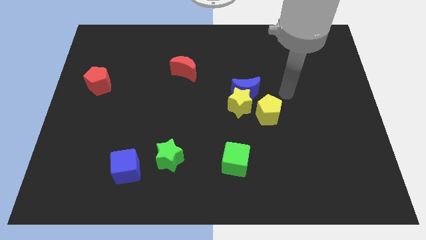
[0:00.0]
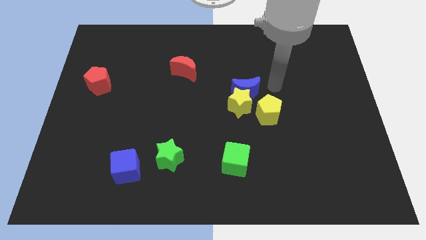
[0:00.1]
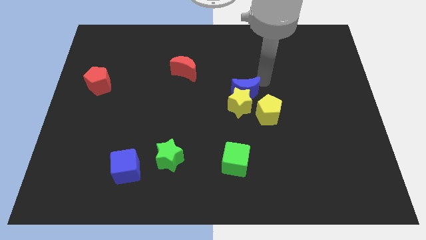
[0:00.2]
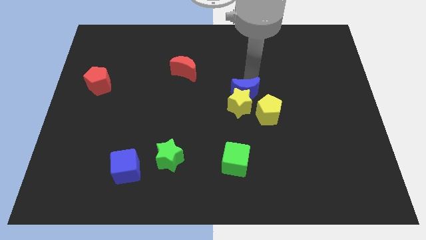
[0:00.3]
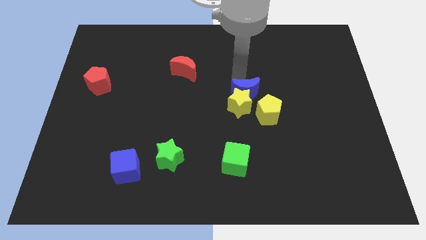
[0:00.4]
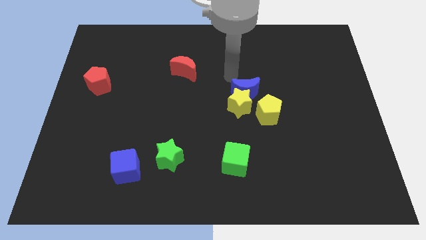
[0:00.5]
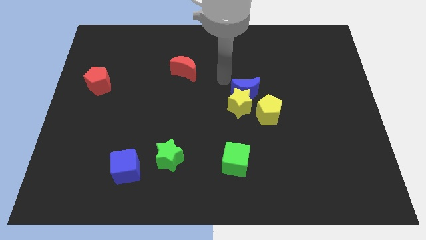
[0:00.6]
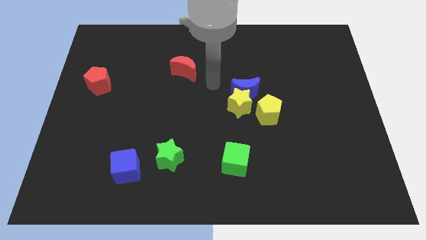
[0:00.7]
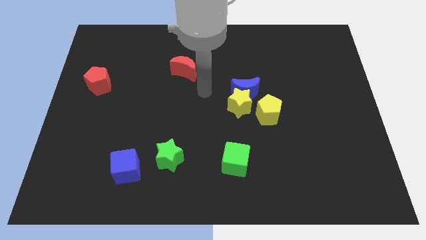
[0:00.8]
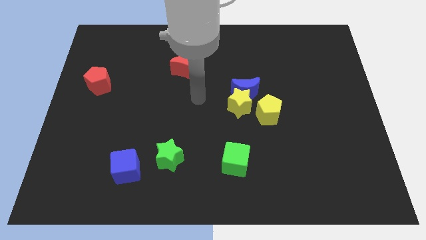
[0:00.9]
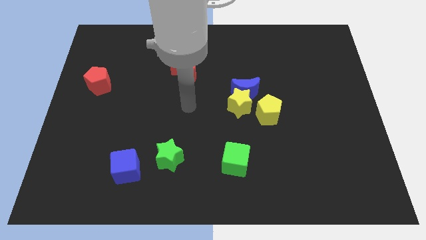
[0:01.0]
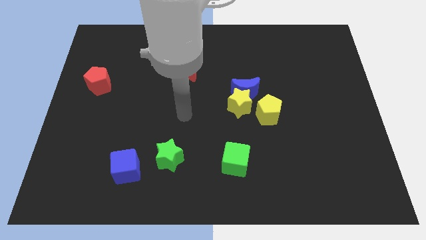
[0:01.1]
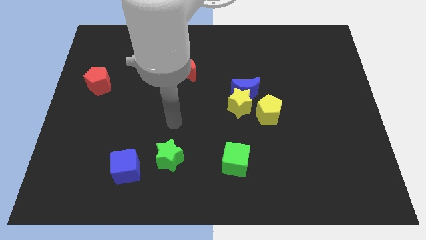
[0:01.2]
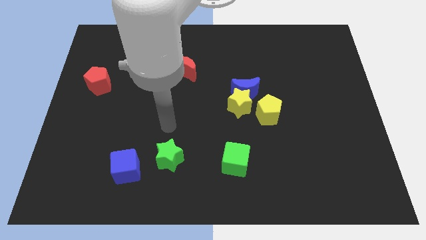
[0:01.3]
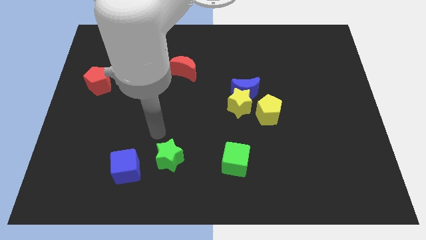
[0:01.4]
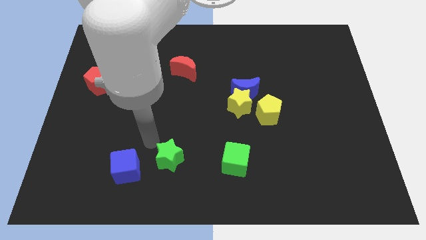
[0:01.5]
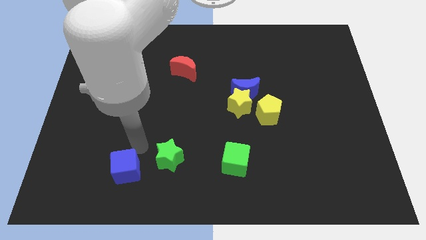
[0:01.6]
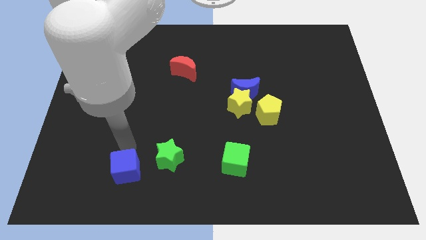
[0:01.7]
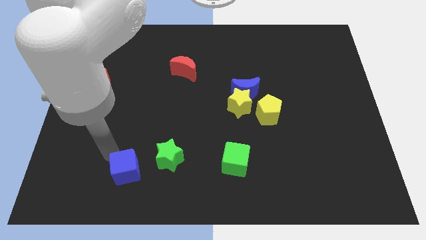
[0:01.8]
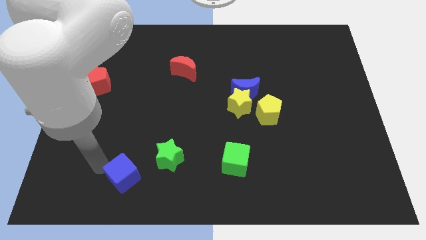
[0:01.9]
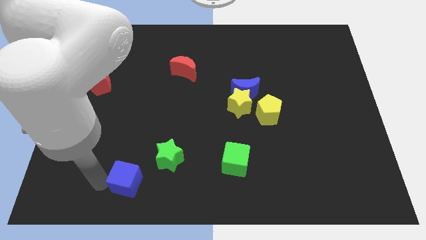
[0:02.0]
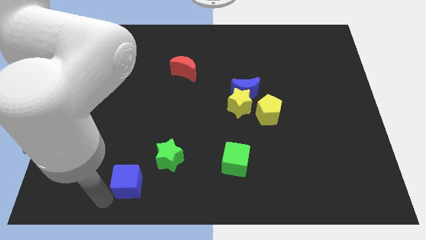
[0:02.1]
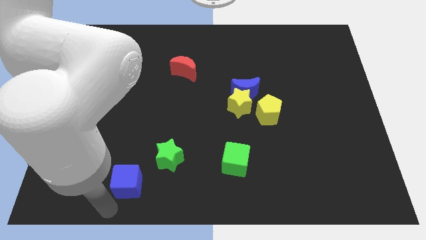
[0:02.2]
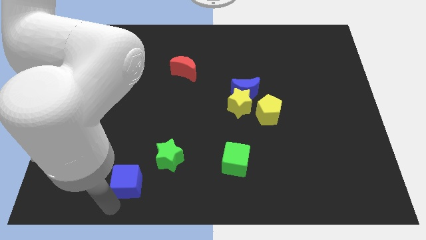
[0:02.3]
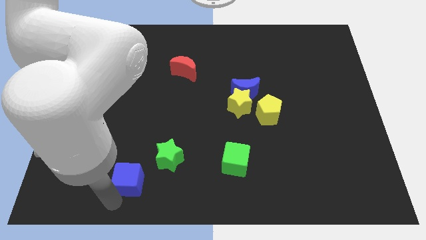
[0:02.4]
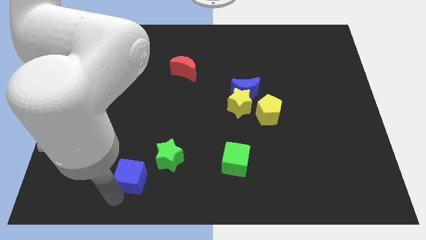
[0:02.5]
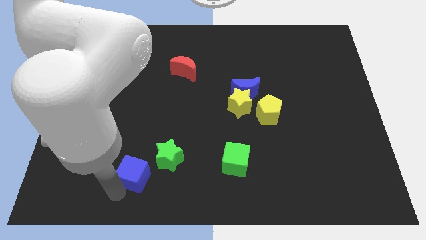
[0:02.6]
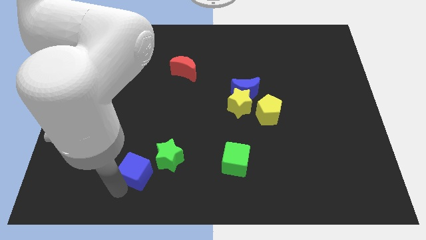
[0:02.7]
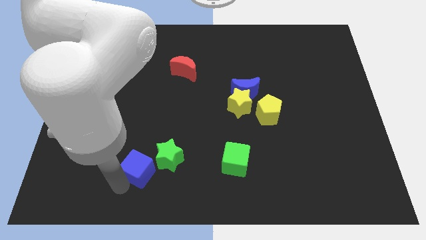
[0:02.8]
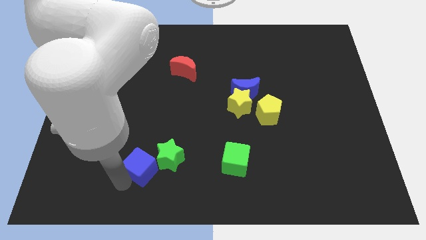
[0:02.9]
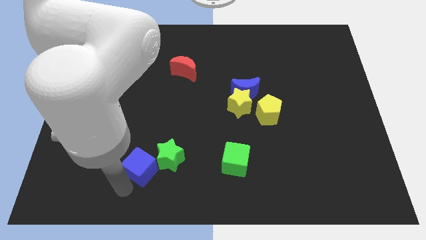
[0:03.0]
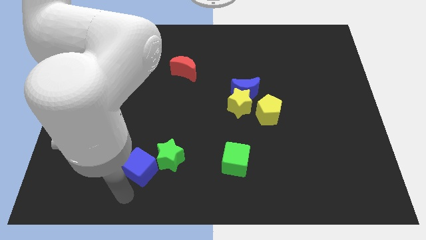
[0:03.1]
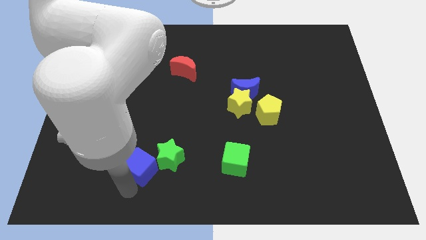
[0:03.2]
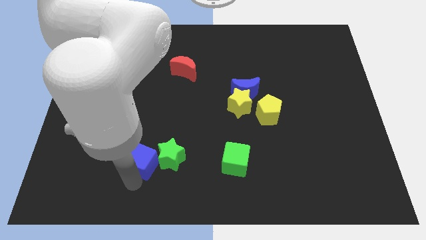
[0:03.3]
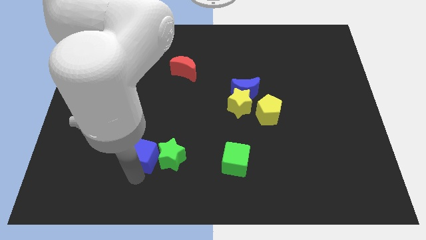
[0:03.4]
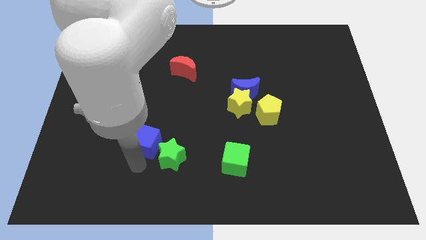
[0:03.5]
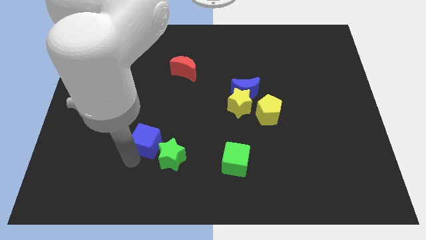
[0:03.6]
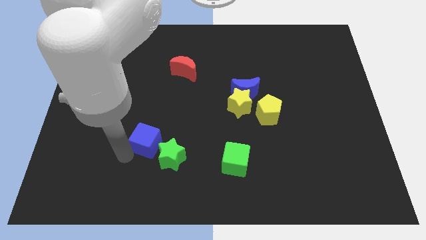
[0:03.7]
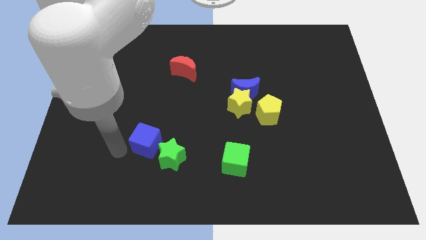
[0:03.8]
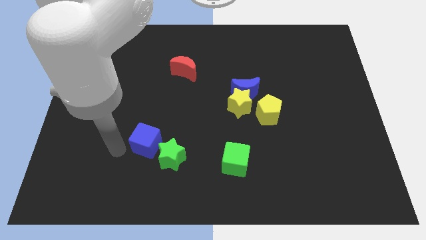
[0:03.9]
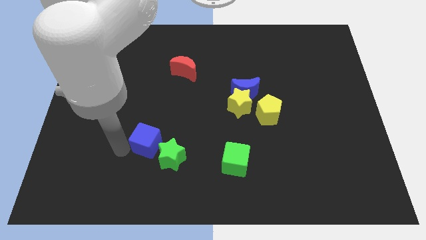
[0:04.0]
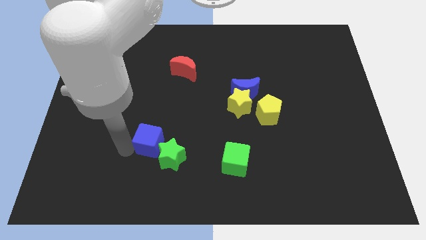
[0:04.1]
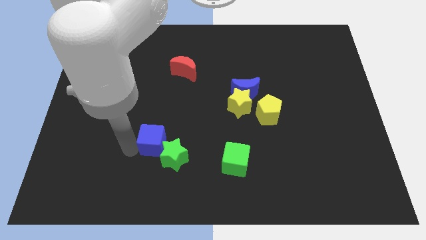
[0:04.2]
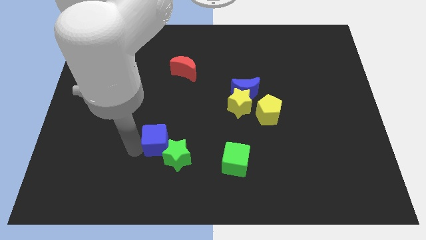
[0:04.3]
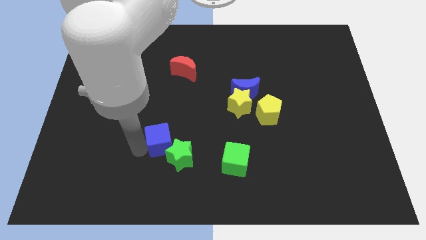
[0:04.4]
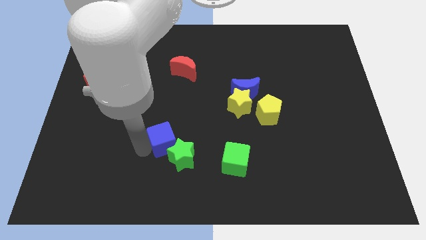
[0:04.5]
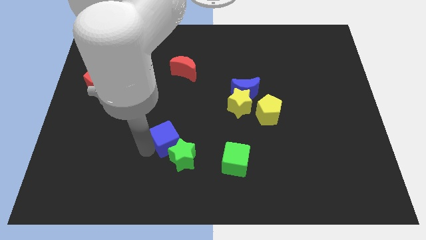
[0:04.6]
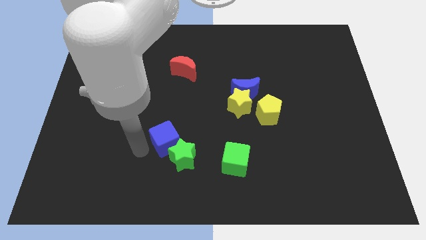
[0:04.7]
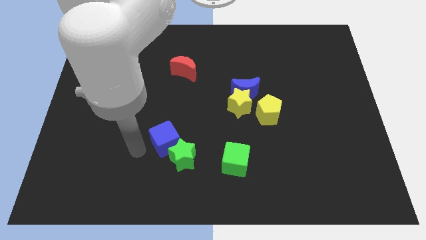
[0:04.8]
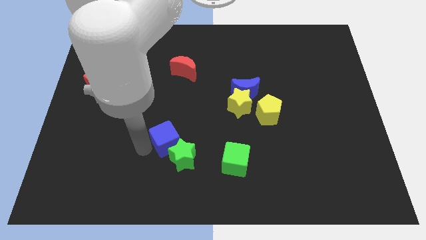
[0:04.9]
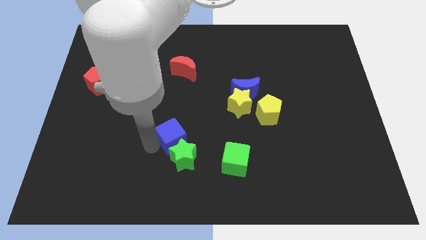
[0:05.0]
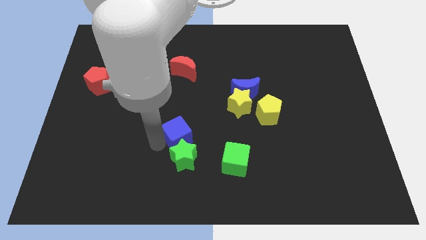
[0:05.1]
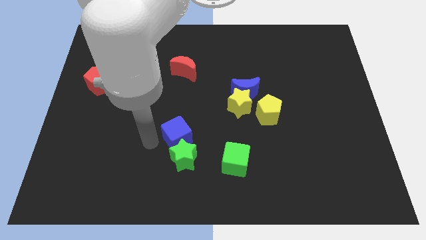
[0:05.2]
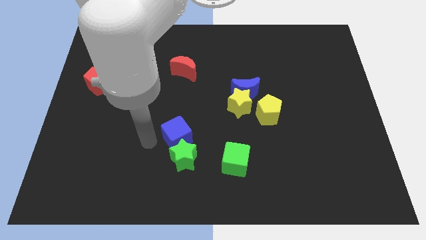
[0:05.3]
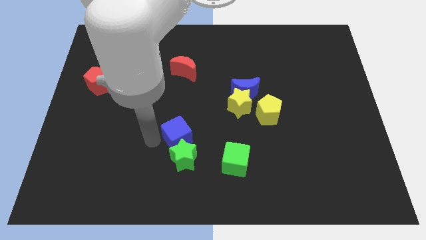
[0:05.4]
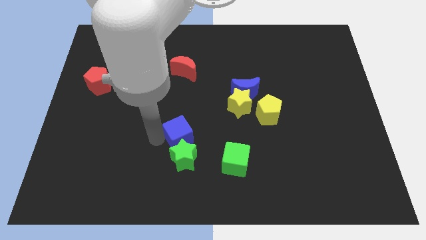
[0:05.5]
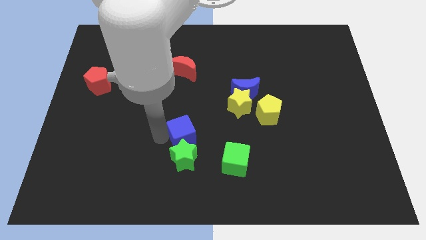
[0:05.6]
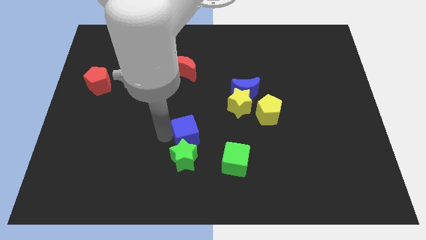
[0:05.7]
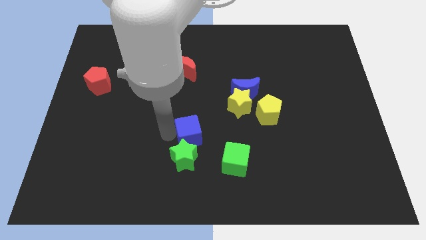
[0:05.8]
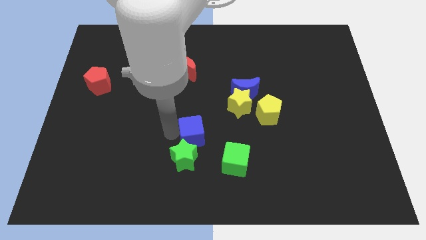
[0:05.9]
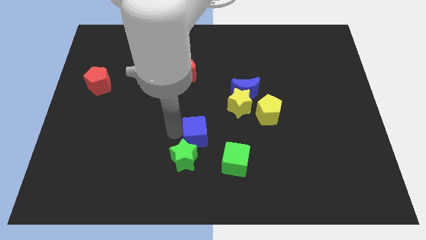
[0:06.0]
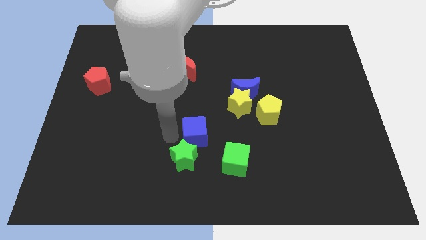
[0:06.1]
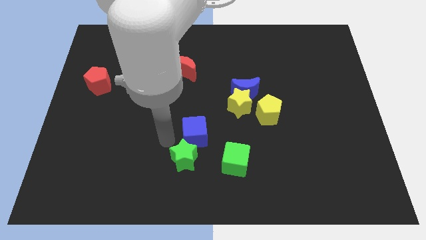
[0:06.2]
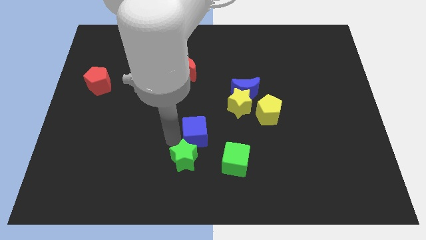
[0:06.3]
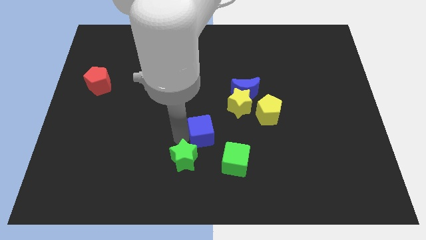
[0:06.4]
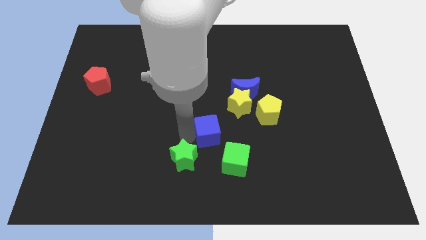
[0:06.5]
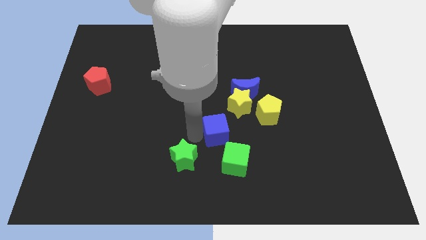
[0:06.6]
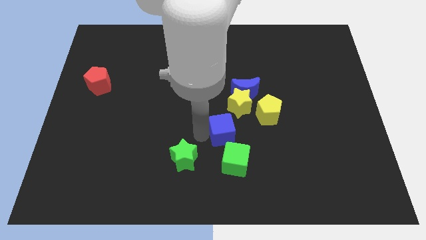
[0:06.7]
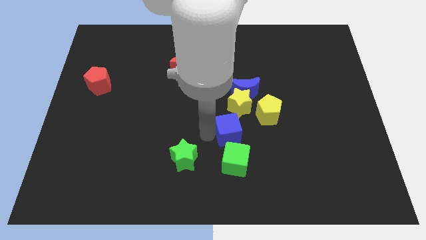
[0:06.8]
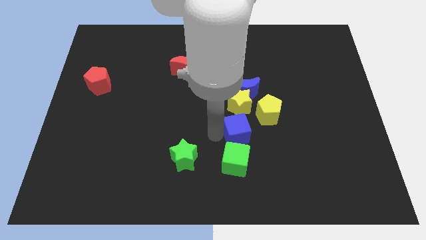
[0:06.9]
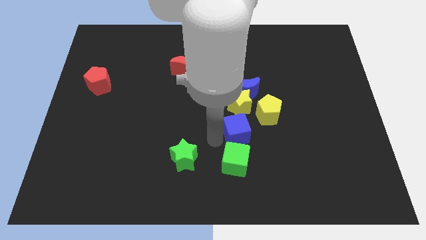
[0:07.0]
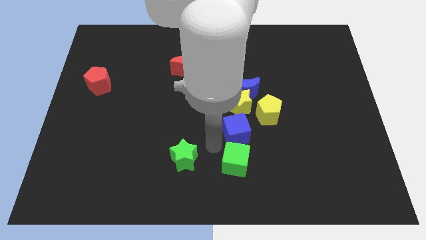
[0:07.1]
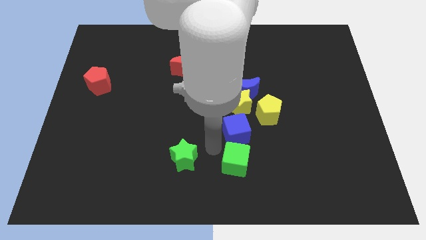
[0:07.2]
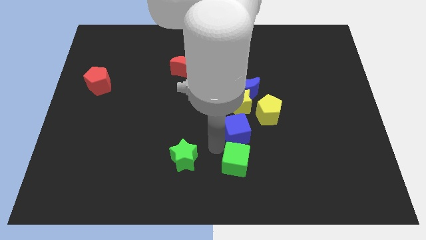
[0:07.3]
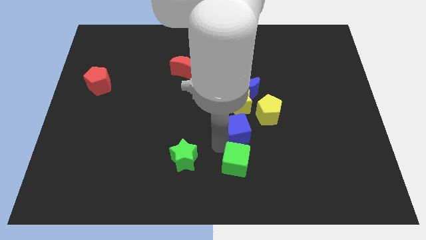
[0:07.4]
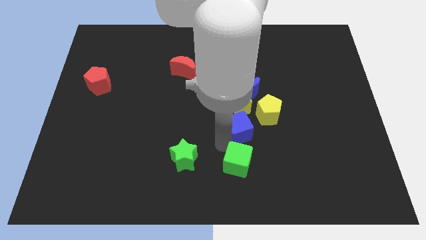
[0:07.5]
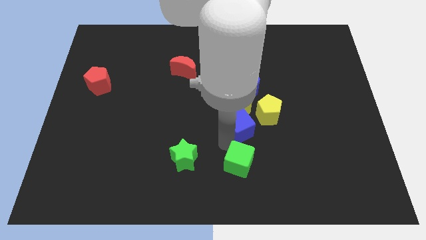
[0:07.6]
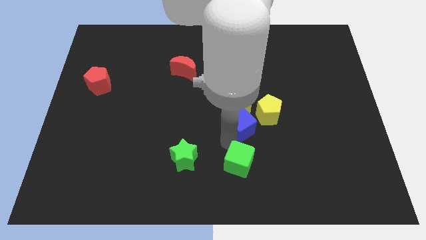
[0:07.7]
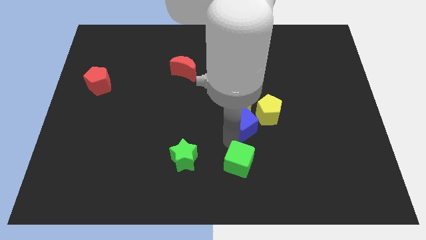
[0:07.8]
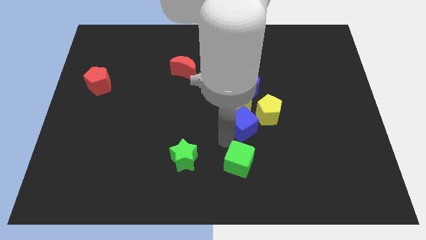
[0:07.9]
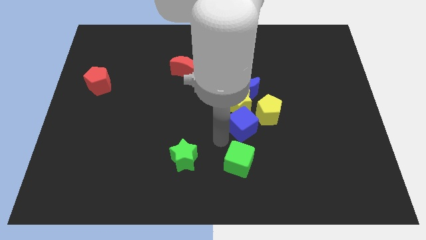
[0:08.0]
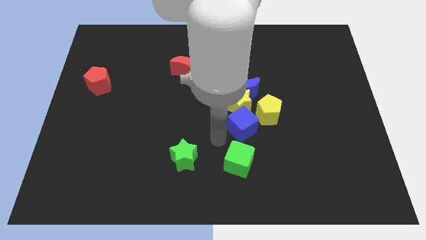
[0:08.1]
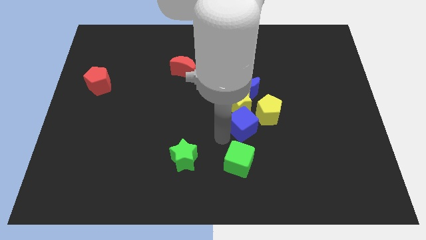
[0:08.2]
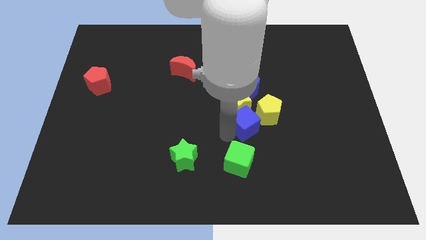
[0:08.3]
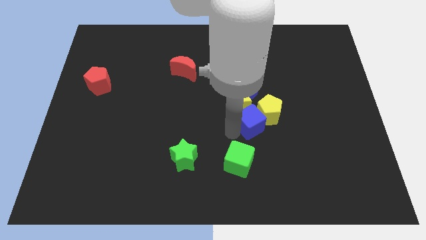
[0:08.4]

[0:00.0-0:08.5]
push the blue cube next to the yellow pentagon
